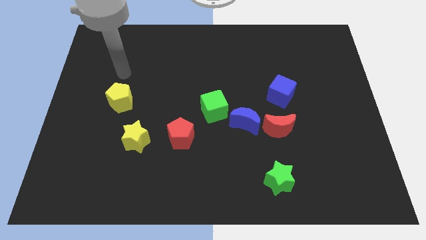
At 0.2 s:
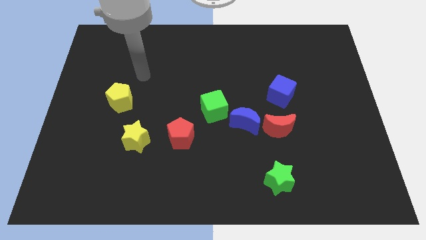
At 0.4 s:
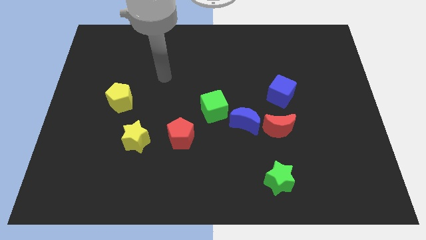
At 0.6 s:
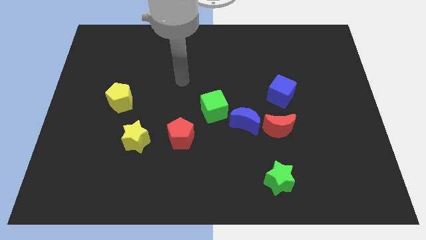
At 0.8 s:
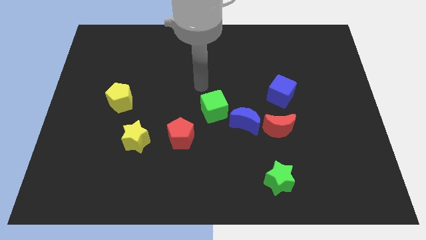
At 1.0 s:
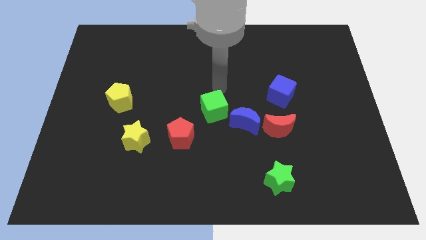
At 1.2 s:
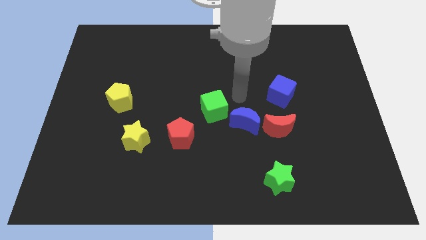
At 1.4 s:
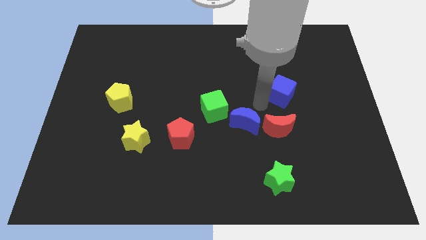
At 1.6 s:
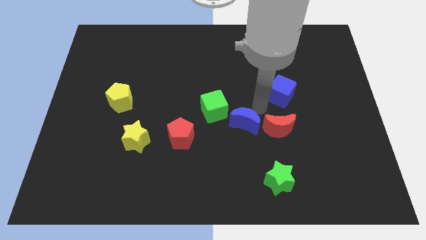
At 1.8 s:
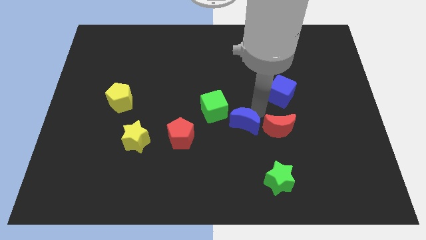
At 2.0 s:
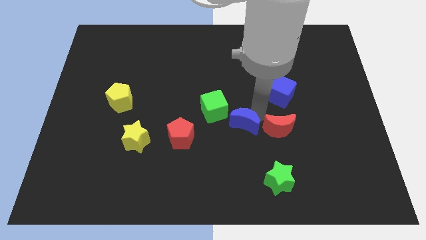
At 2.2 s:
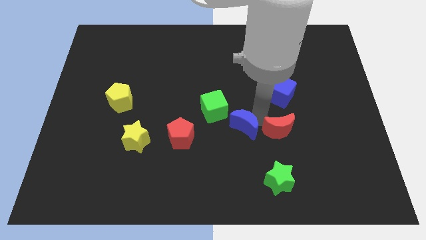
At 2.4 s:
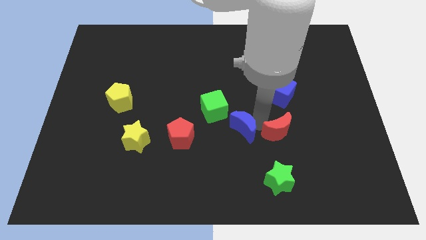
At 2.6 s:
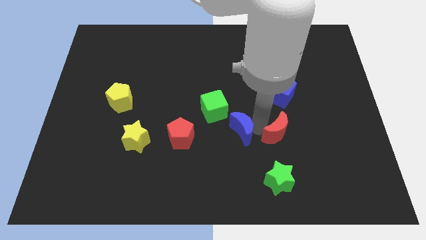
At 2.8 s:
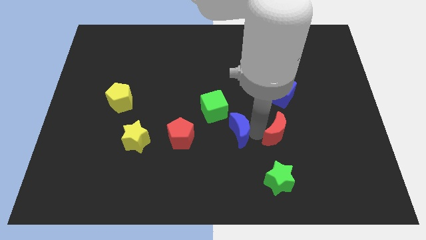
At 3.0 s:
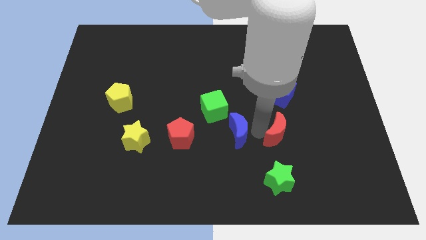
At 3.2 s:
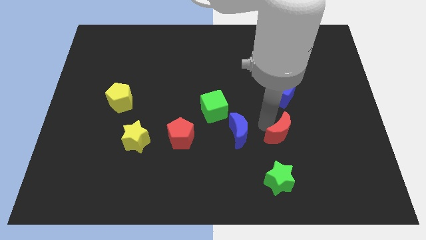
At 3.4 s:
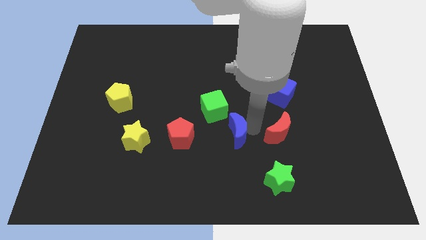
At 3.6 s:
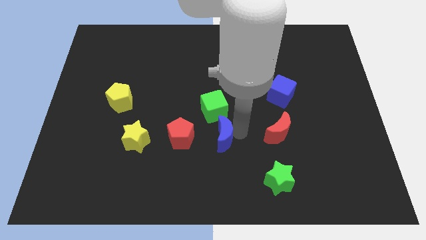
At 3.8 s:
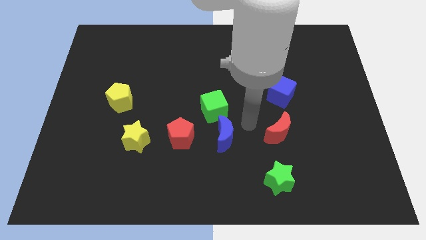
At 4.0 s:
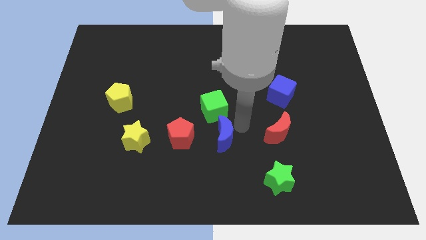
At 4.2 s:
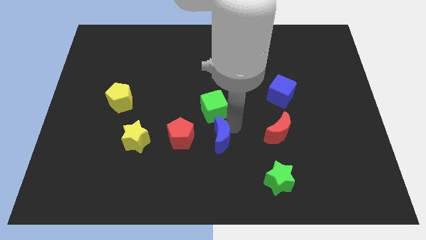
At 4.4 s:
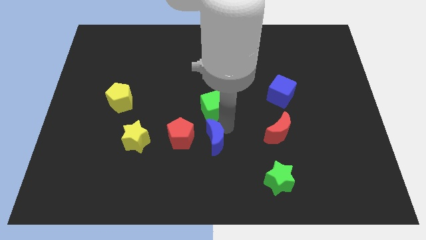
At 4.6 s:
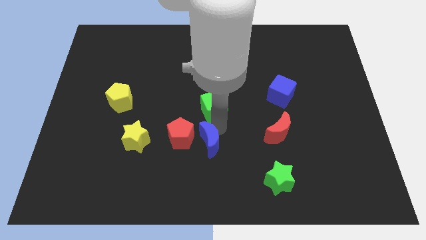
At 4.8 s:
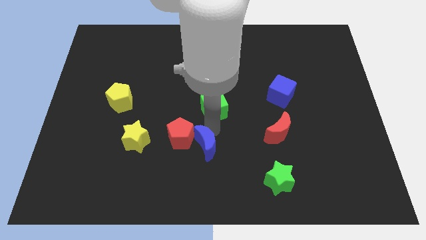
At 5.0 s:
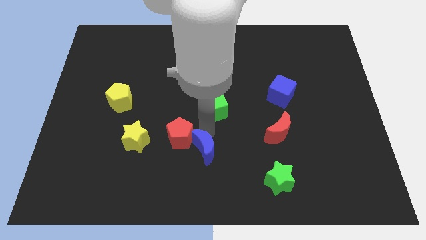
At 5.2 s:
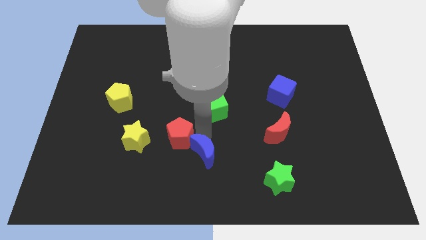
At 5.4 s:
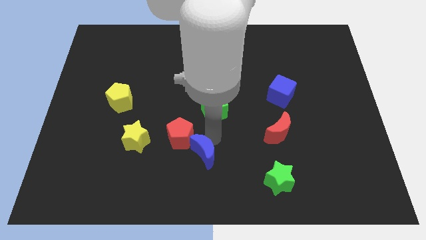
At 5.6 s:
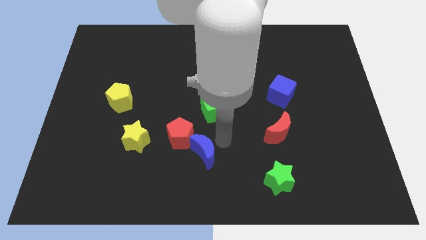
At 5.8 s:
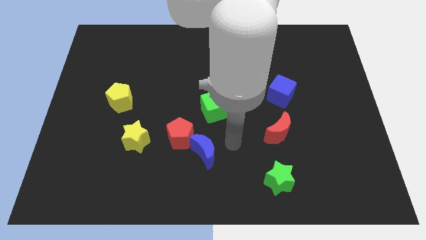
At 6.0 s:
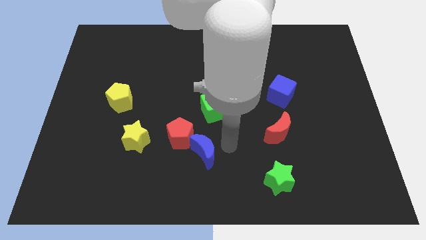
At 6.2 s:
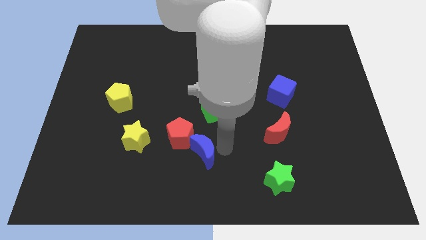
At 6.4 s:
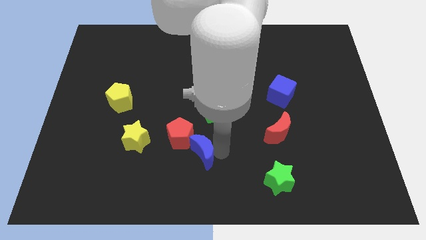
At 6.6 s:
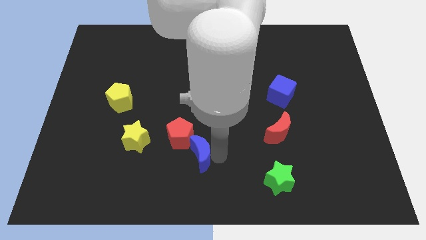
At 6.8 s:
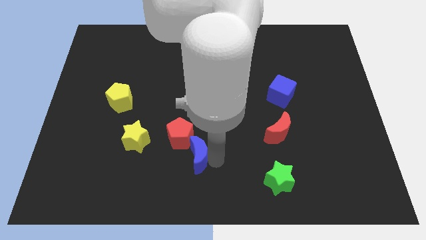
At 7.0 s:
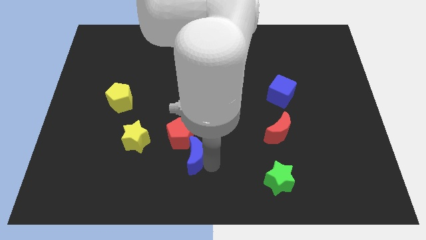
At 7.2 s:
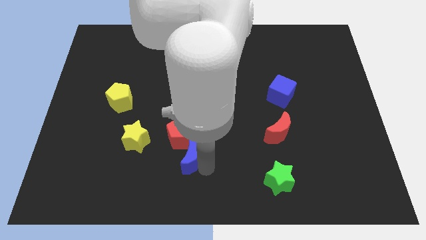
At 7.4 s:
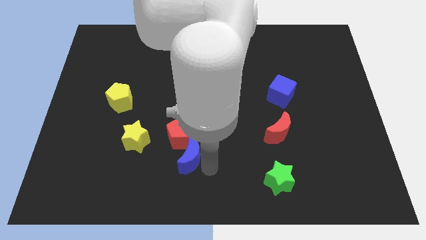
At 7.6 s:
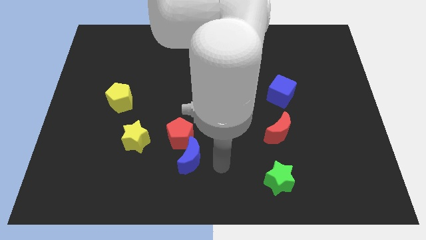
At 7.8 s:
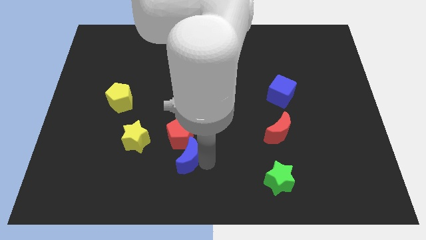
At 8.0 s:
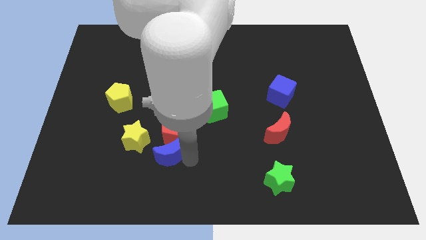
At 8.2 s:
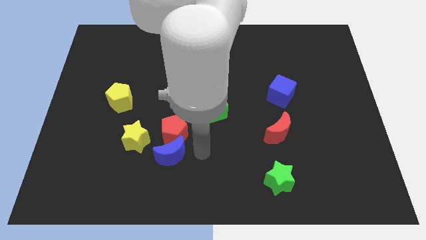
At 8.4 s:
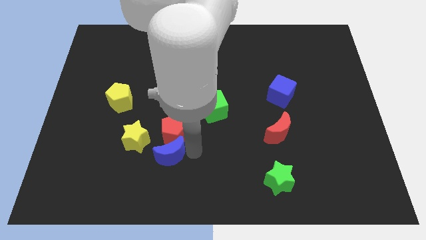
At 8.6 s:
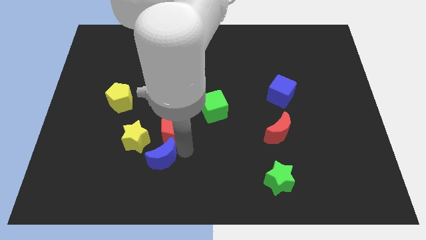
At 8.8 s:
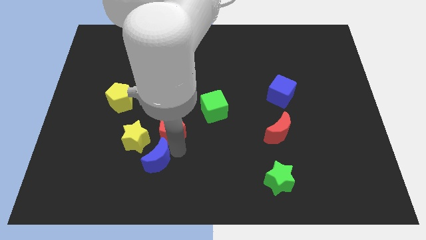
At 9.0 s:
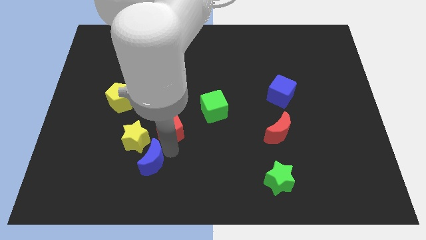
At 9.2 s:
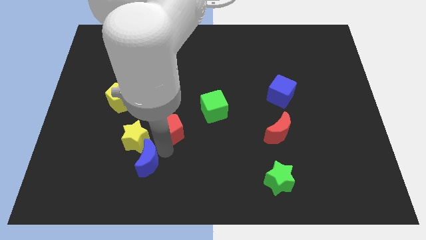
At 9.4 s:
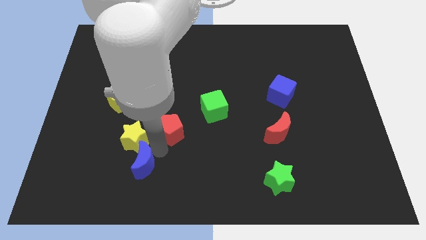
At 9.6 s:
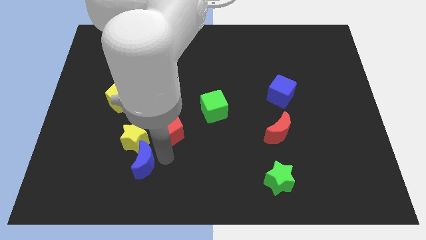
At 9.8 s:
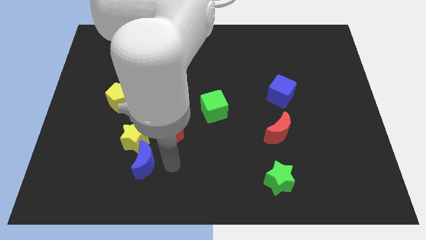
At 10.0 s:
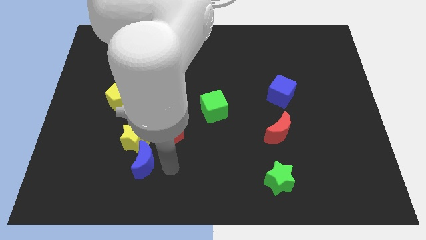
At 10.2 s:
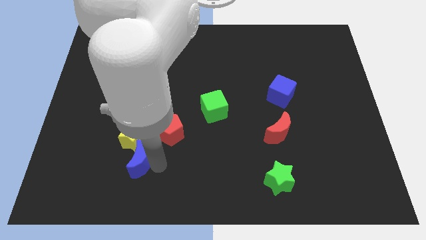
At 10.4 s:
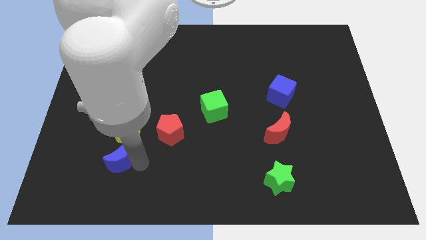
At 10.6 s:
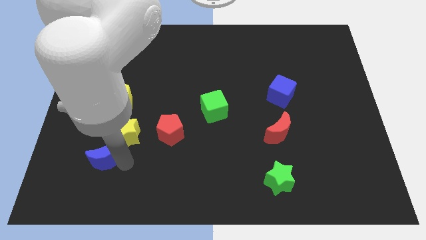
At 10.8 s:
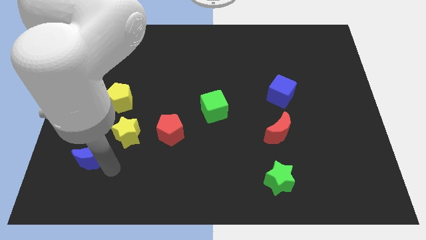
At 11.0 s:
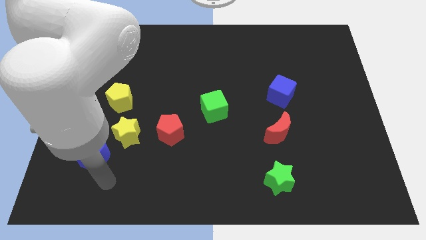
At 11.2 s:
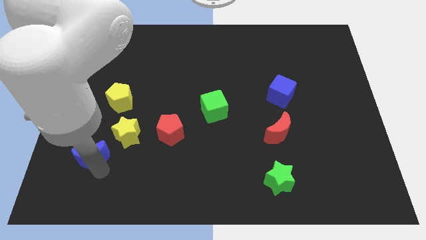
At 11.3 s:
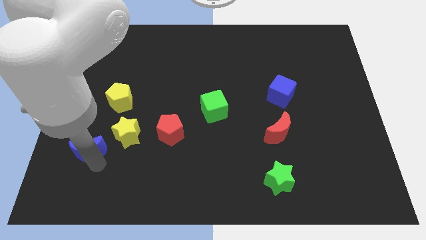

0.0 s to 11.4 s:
push the blue moon just left of the yellow star
